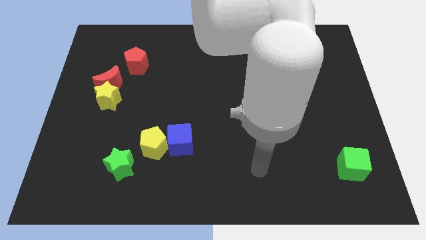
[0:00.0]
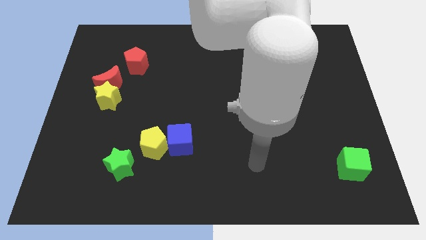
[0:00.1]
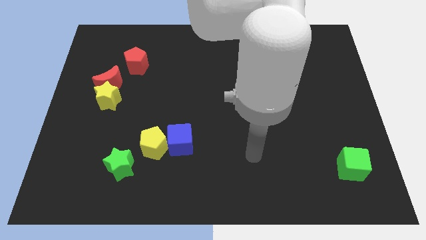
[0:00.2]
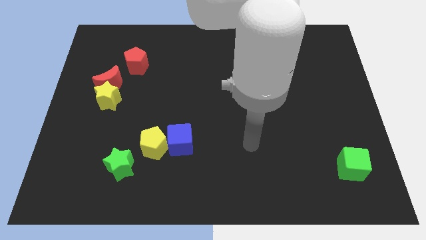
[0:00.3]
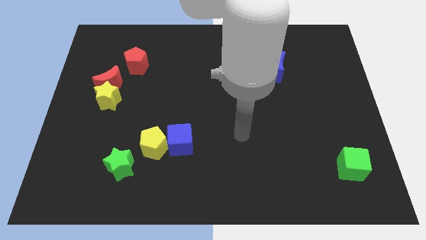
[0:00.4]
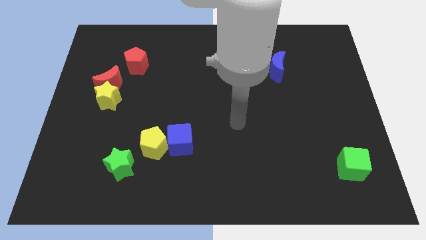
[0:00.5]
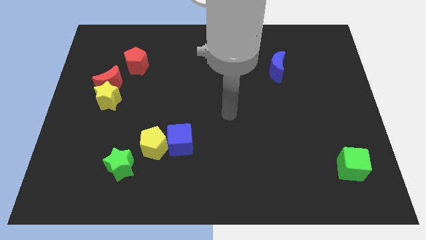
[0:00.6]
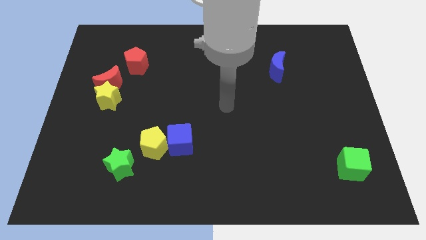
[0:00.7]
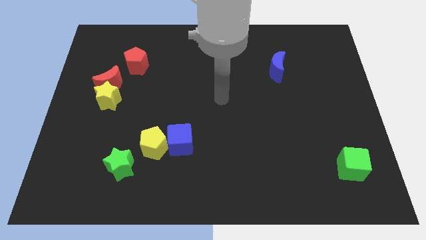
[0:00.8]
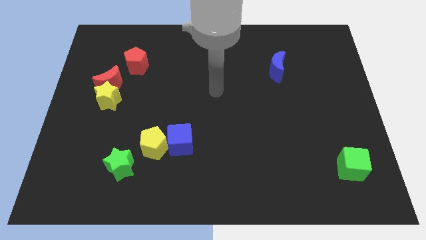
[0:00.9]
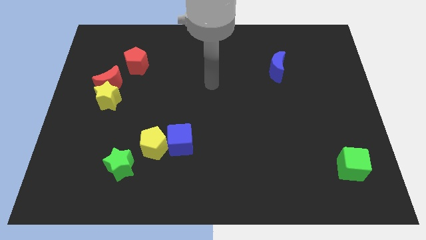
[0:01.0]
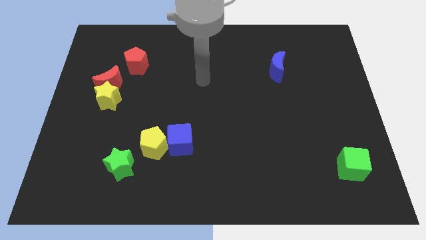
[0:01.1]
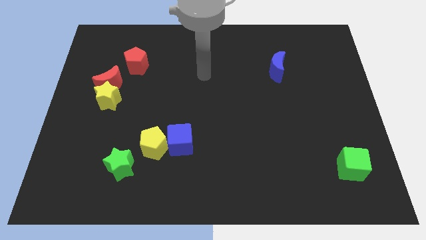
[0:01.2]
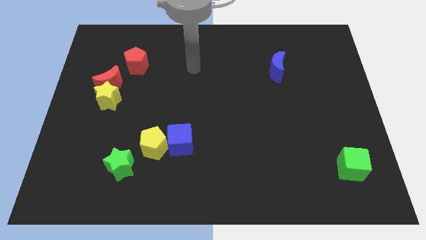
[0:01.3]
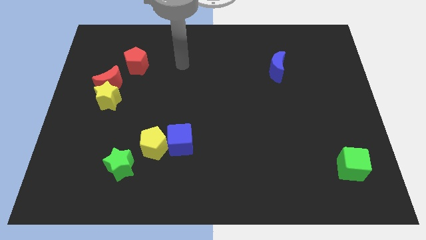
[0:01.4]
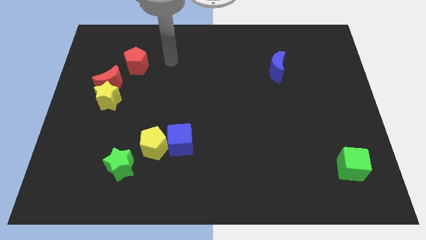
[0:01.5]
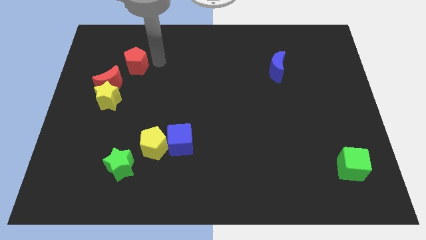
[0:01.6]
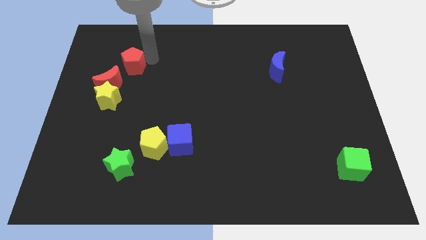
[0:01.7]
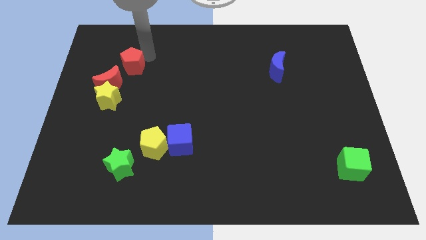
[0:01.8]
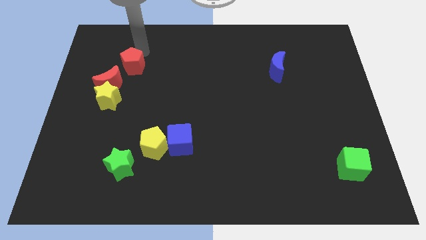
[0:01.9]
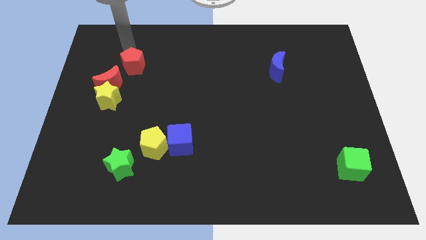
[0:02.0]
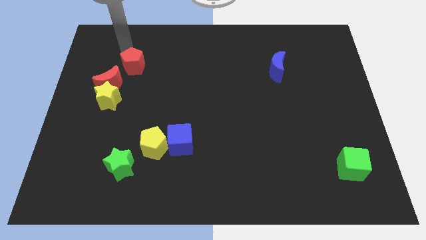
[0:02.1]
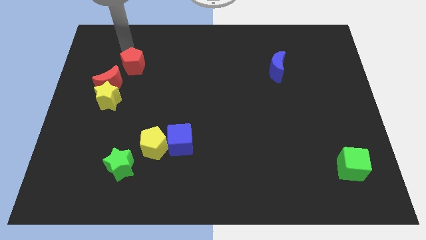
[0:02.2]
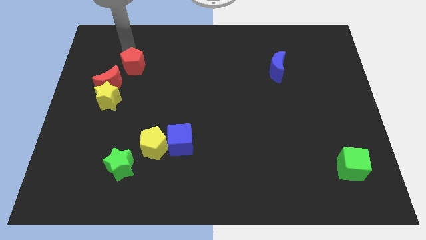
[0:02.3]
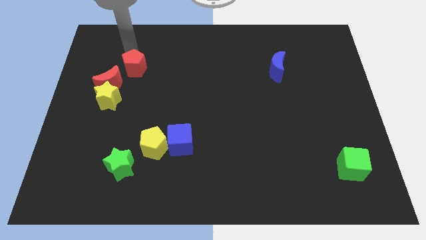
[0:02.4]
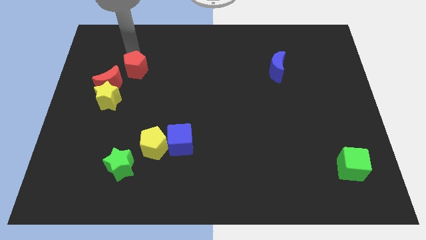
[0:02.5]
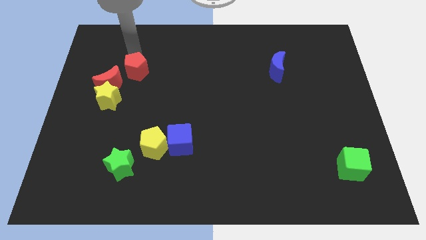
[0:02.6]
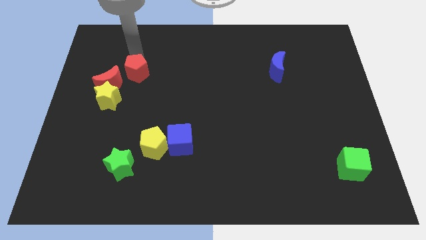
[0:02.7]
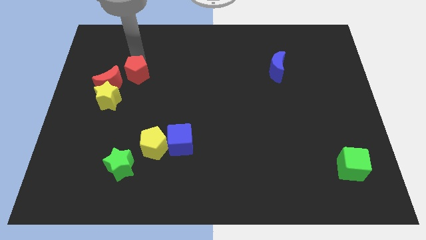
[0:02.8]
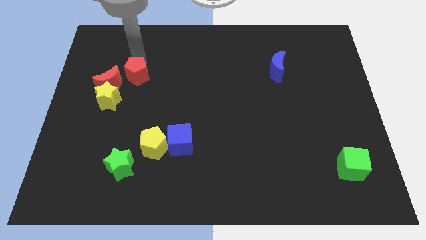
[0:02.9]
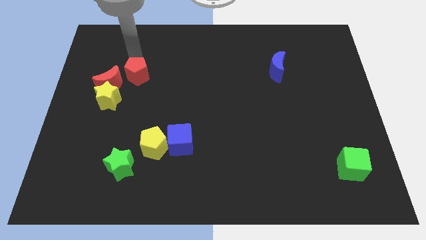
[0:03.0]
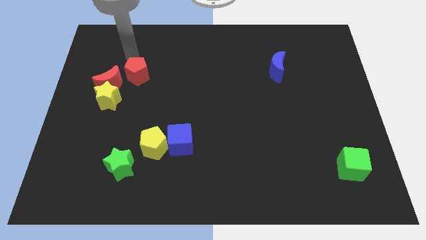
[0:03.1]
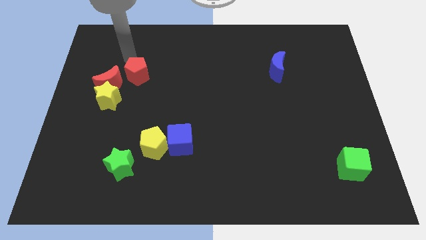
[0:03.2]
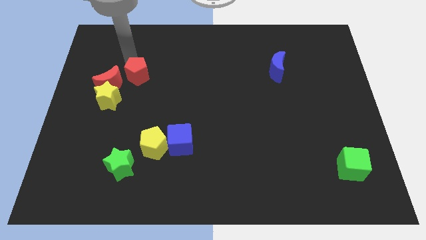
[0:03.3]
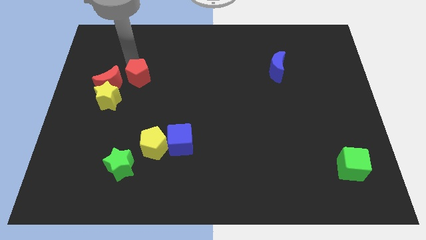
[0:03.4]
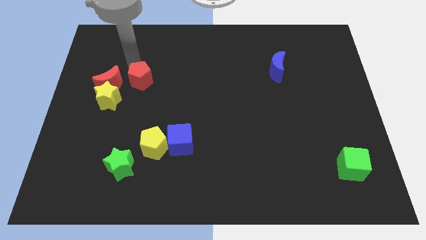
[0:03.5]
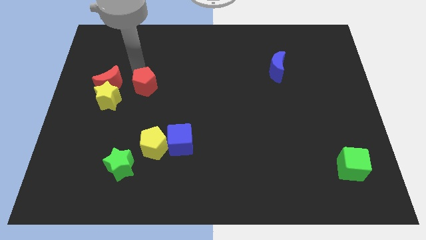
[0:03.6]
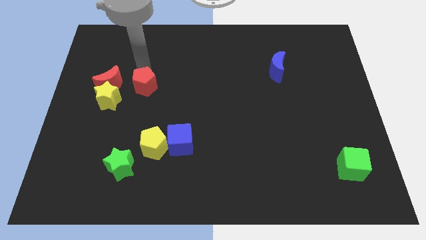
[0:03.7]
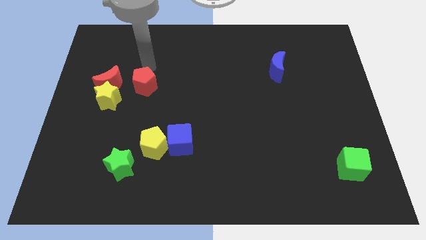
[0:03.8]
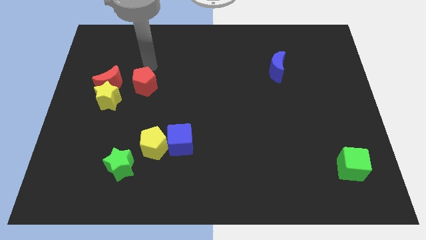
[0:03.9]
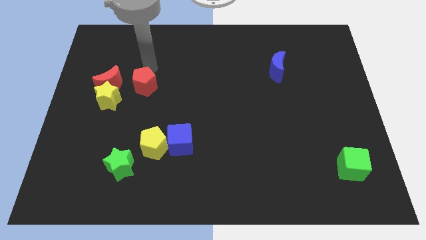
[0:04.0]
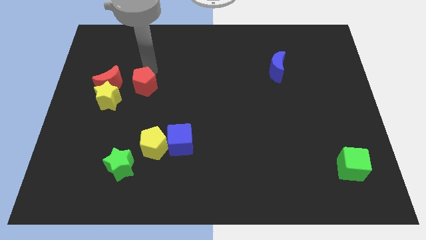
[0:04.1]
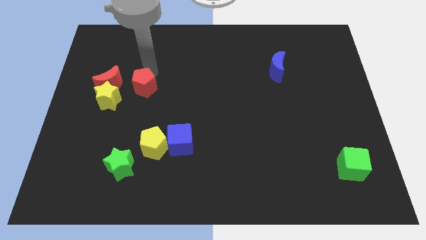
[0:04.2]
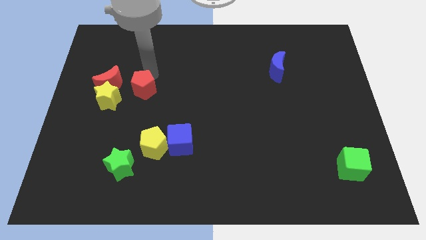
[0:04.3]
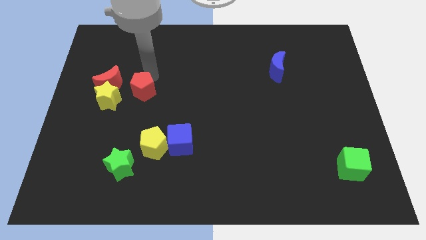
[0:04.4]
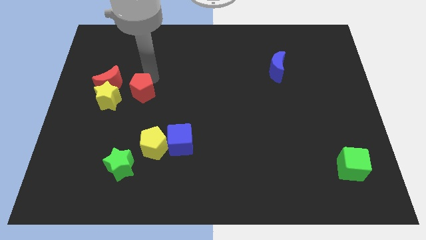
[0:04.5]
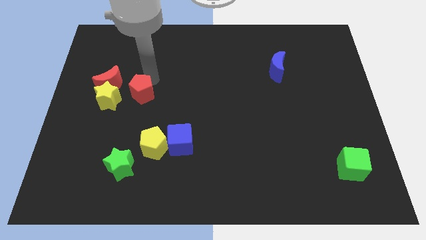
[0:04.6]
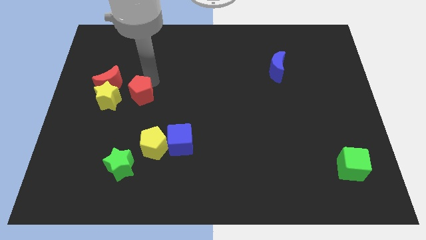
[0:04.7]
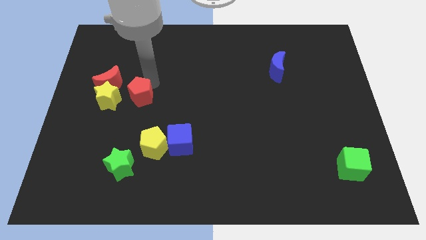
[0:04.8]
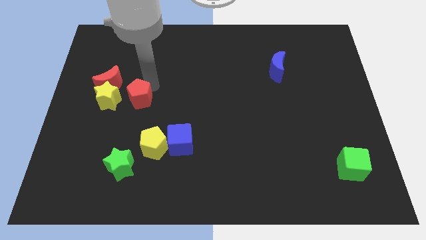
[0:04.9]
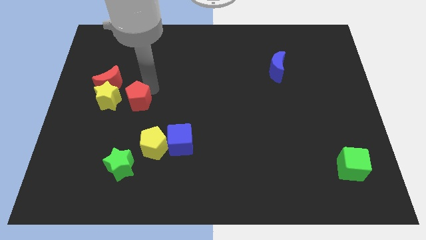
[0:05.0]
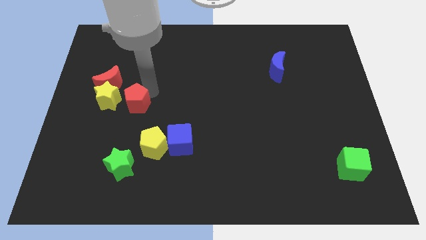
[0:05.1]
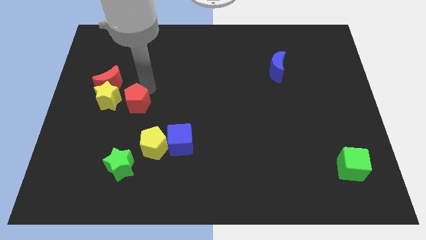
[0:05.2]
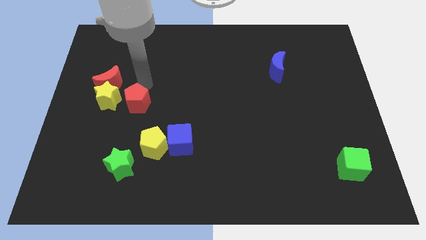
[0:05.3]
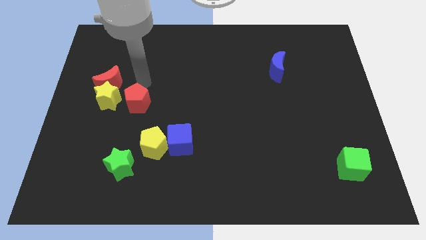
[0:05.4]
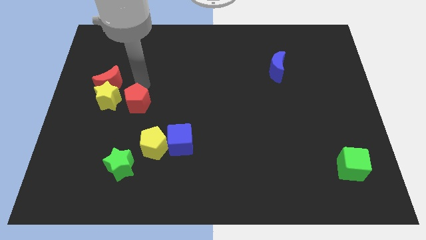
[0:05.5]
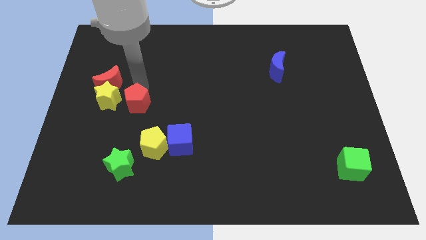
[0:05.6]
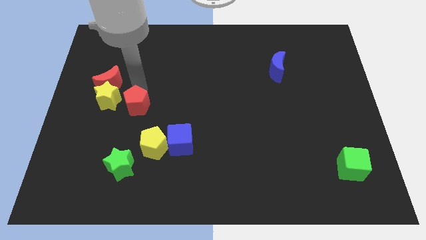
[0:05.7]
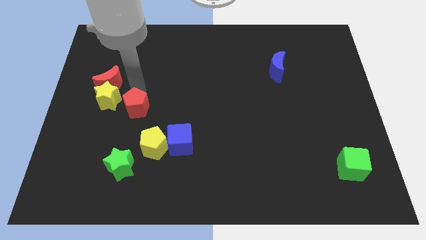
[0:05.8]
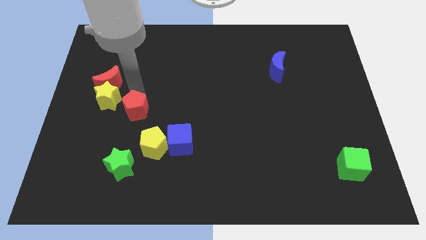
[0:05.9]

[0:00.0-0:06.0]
slide the red pentagon diagonally up and to the left of the yellow pentagon

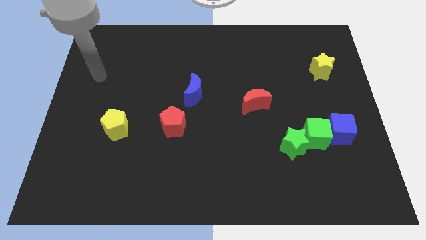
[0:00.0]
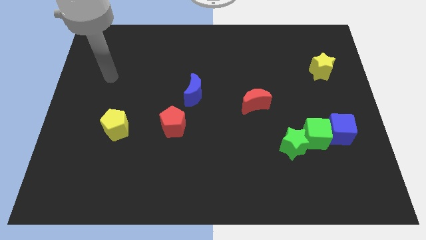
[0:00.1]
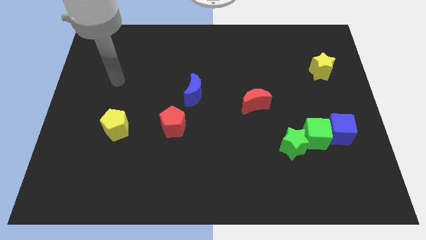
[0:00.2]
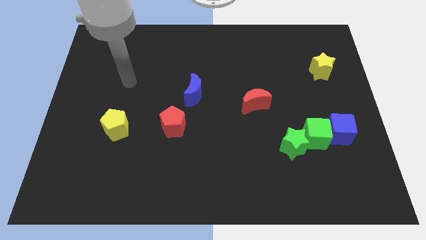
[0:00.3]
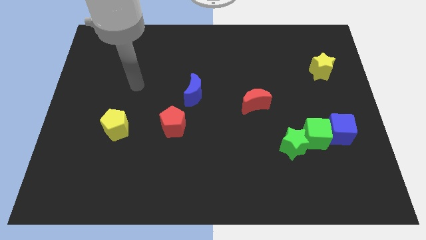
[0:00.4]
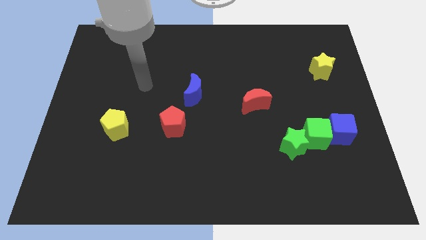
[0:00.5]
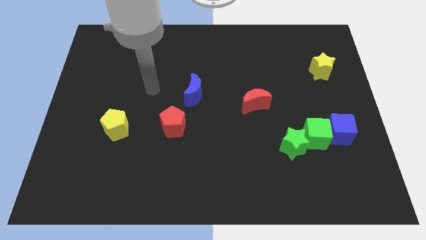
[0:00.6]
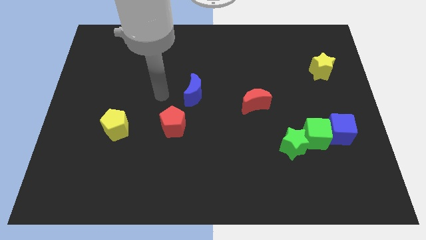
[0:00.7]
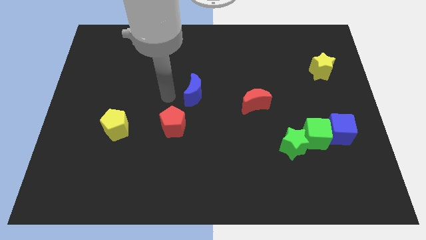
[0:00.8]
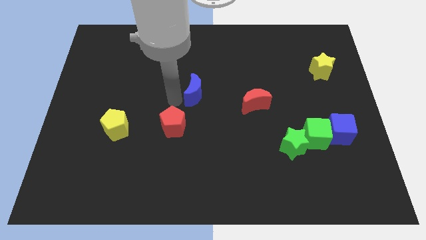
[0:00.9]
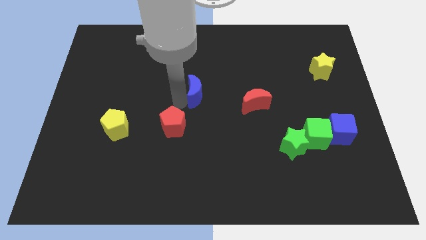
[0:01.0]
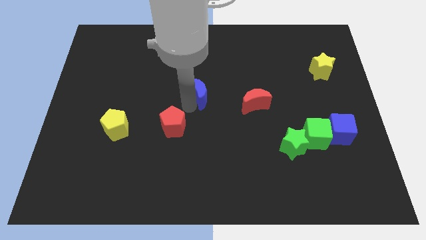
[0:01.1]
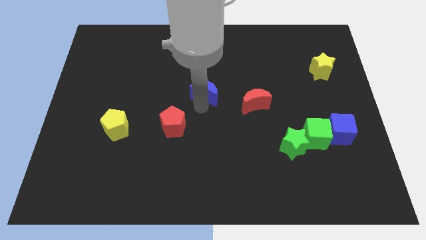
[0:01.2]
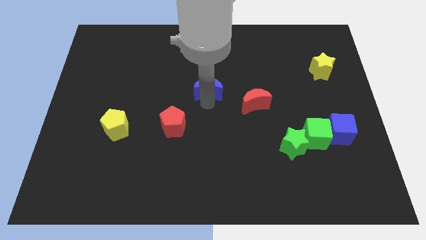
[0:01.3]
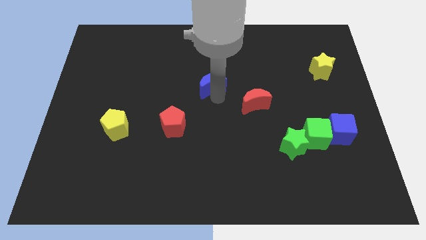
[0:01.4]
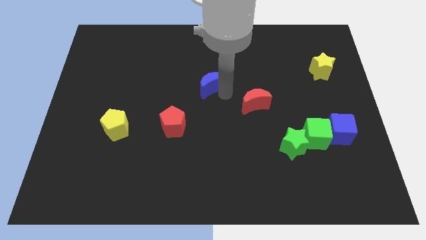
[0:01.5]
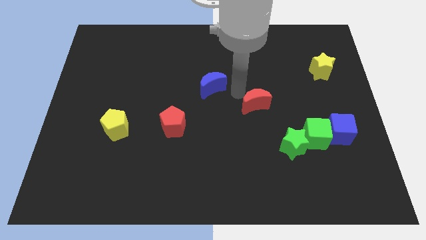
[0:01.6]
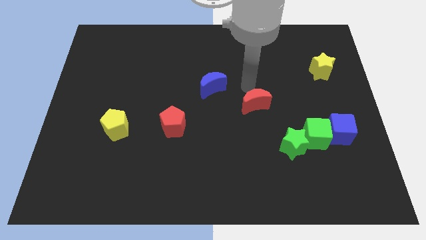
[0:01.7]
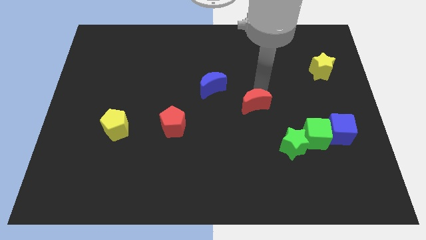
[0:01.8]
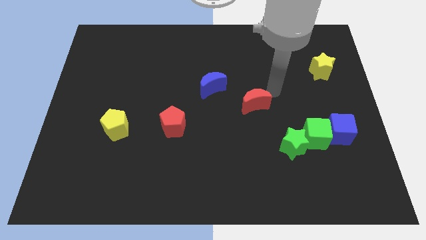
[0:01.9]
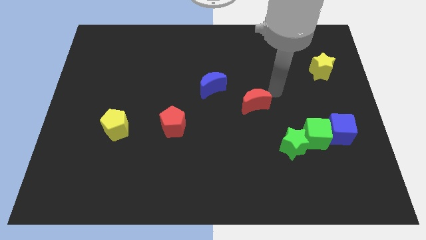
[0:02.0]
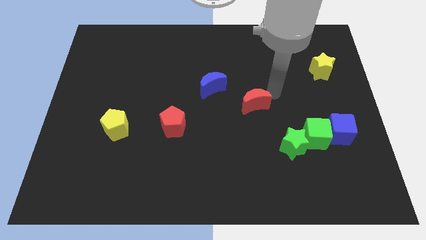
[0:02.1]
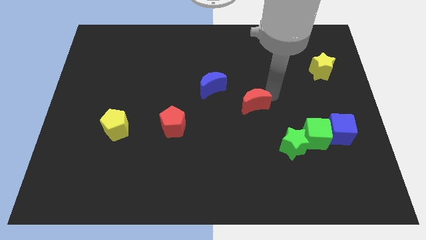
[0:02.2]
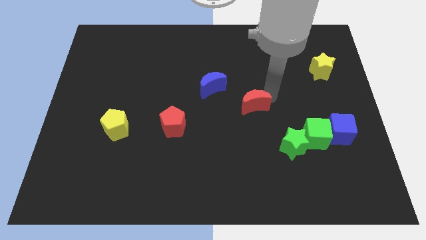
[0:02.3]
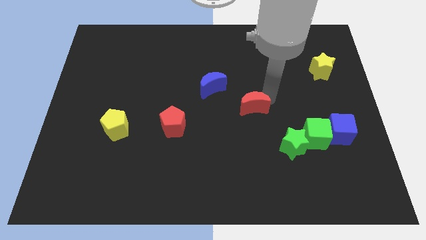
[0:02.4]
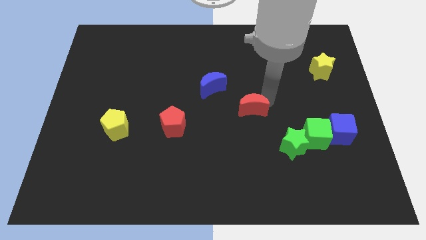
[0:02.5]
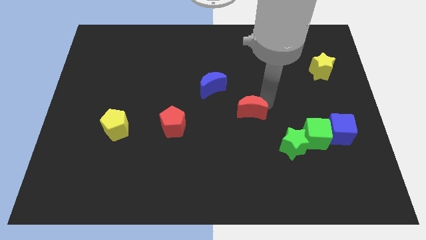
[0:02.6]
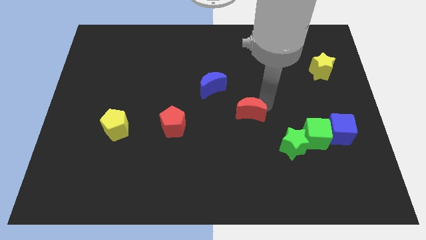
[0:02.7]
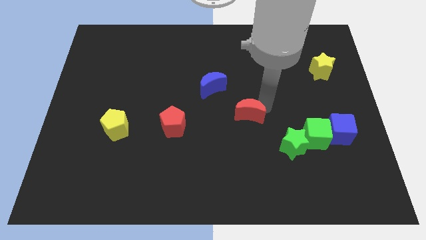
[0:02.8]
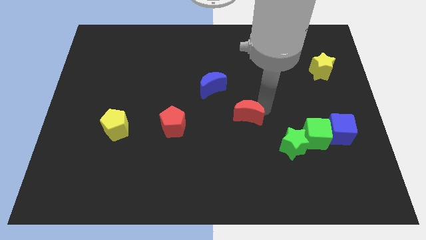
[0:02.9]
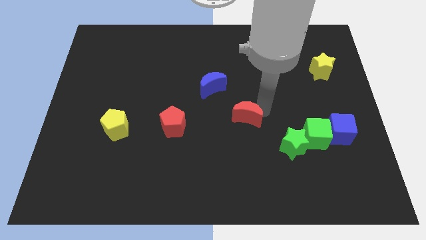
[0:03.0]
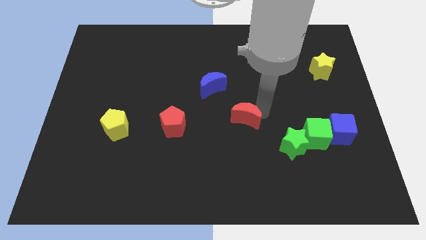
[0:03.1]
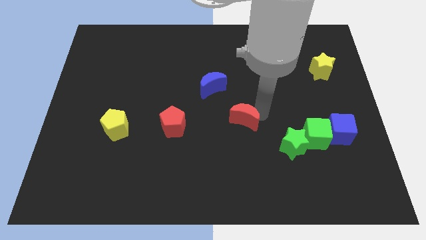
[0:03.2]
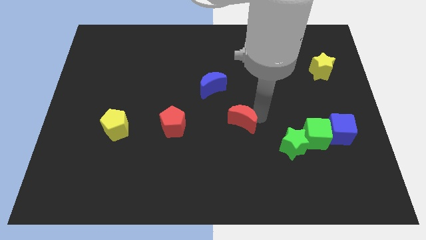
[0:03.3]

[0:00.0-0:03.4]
slide the red moon to the right side of the red pentagon
